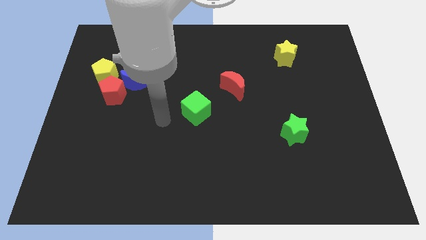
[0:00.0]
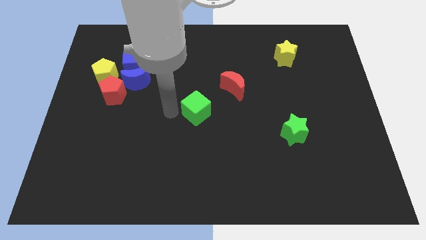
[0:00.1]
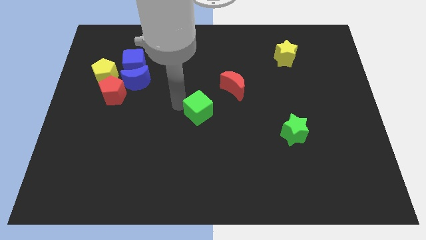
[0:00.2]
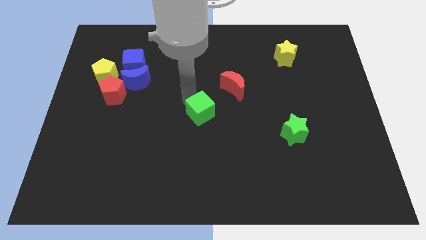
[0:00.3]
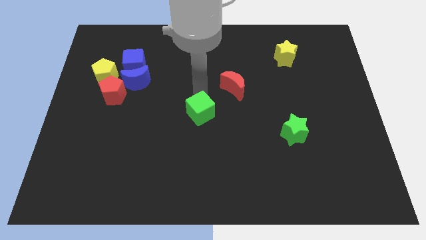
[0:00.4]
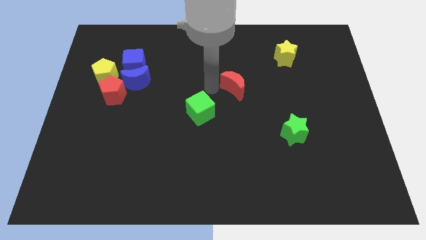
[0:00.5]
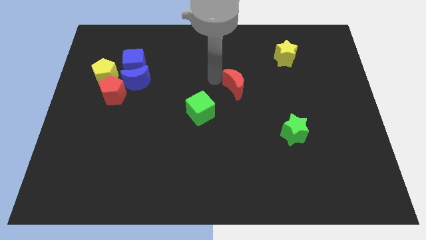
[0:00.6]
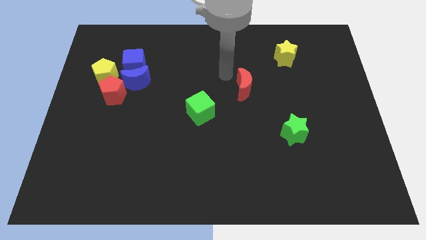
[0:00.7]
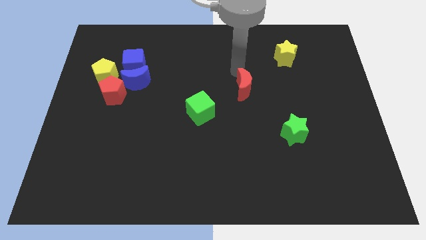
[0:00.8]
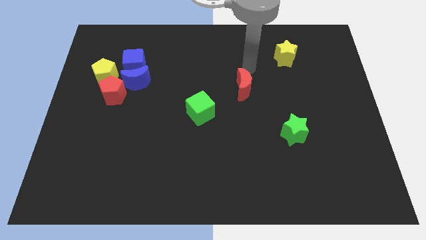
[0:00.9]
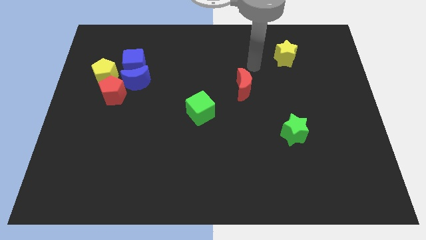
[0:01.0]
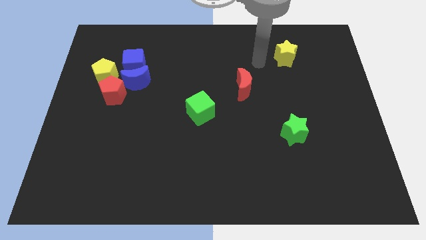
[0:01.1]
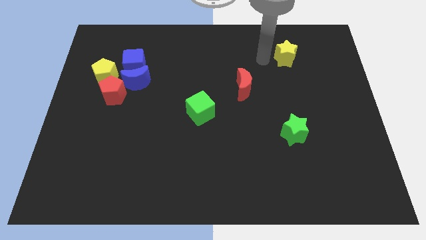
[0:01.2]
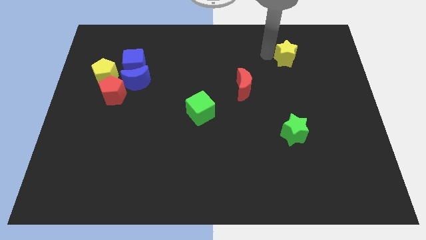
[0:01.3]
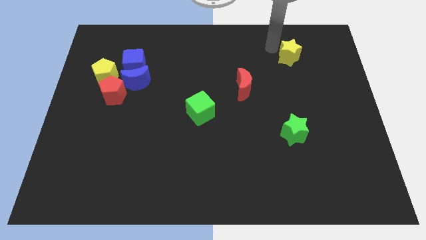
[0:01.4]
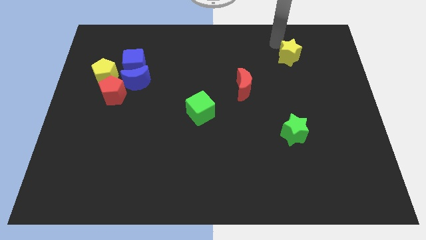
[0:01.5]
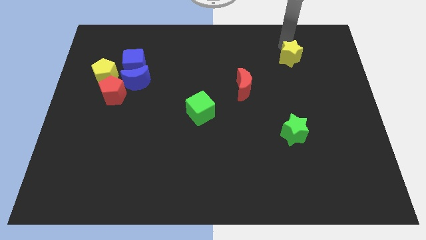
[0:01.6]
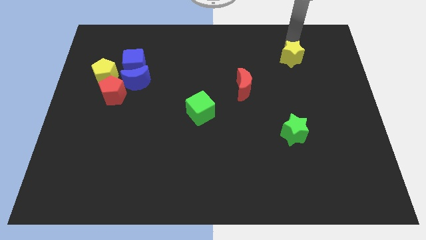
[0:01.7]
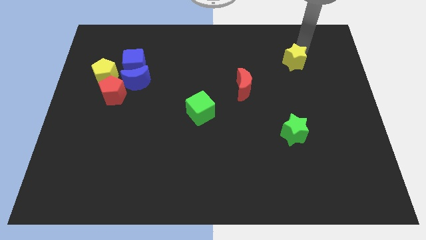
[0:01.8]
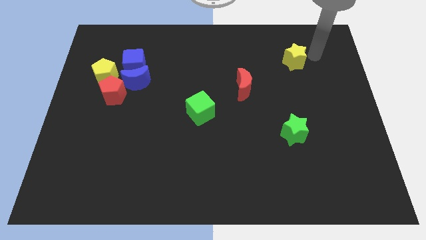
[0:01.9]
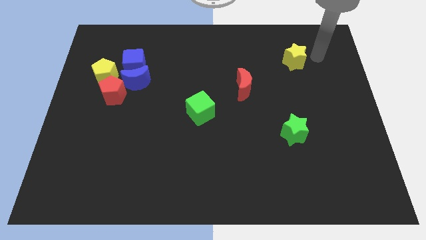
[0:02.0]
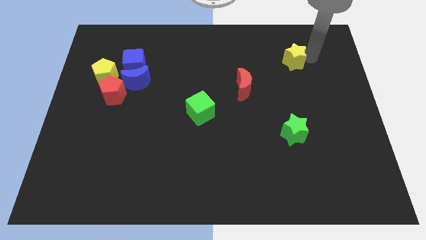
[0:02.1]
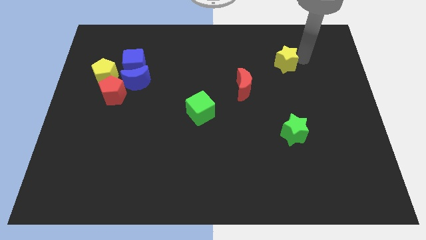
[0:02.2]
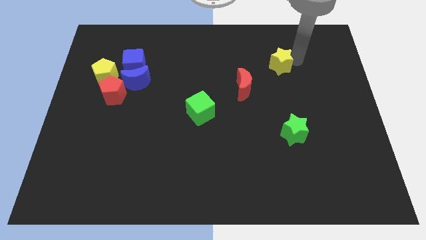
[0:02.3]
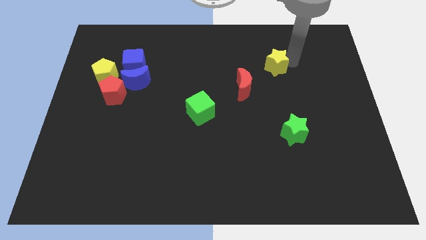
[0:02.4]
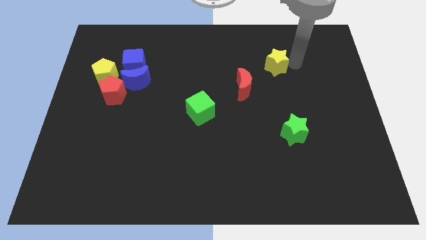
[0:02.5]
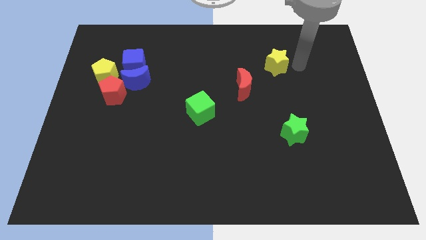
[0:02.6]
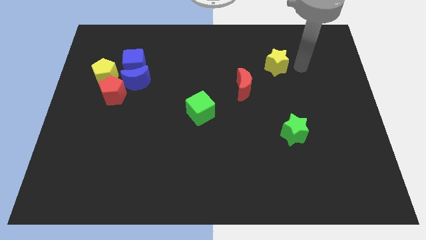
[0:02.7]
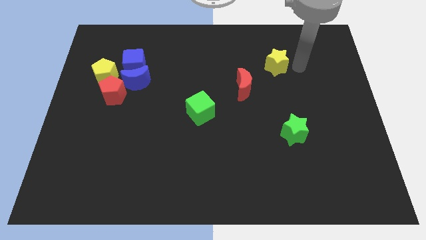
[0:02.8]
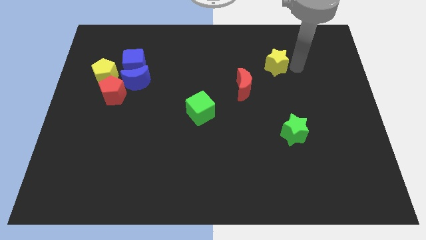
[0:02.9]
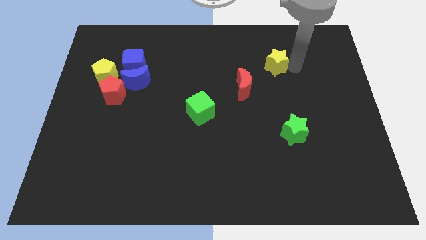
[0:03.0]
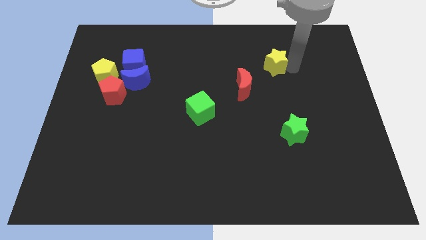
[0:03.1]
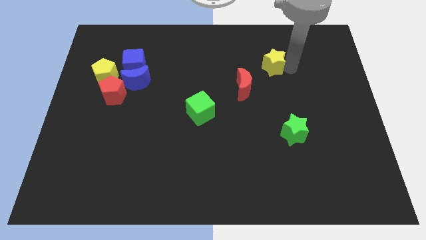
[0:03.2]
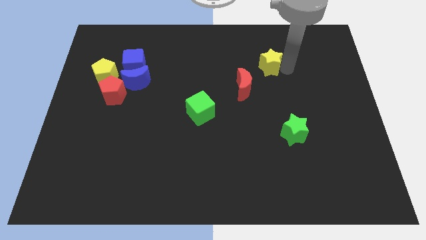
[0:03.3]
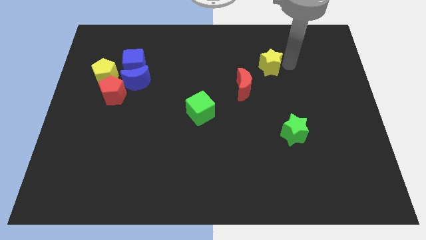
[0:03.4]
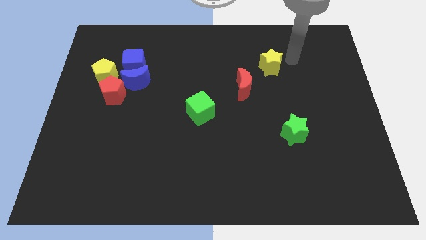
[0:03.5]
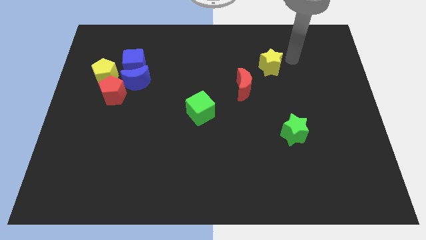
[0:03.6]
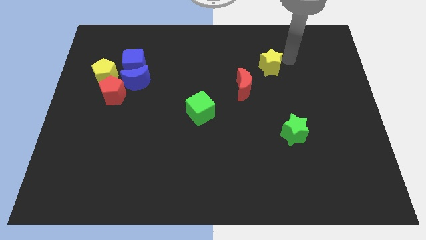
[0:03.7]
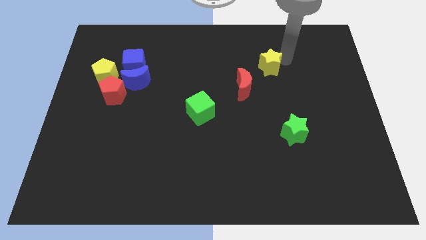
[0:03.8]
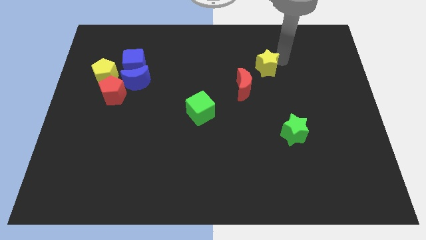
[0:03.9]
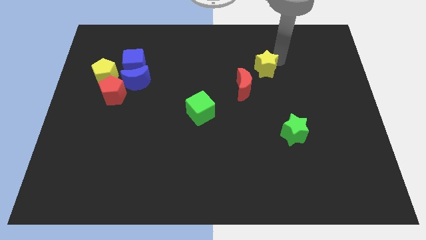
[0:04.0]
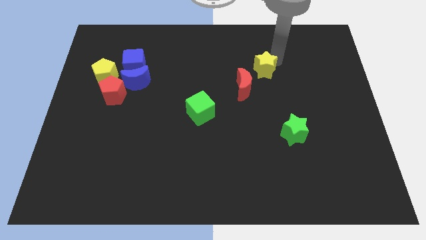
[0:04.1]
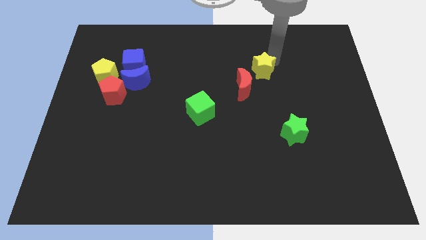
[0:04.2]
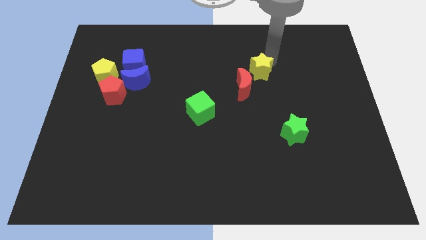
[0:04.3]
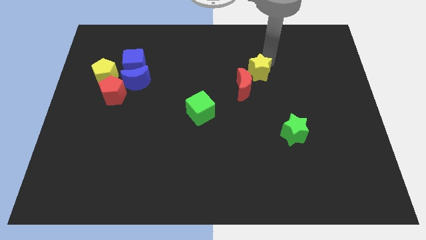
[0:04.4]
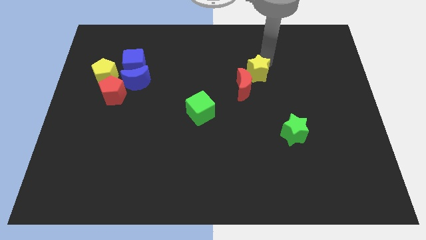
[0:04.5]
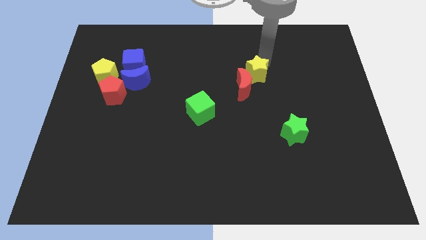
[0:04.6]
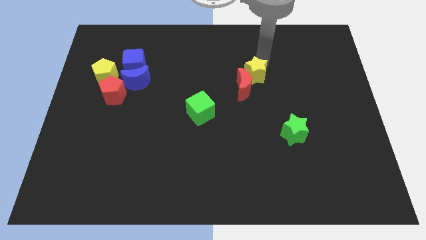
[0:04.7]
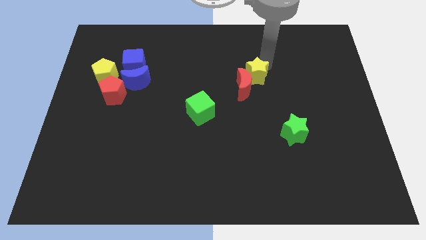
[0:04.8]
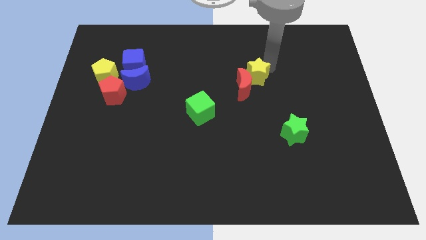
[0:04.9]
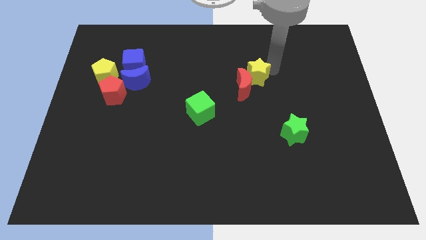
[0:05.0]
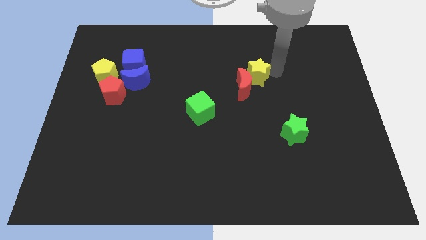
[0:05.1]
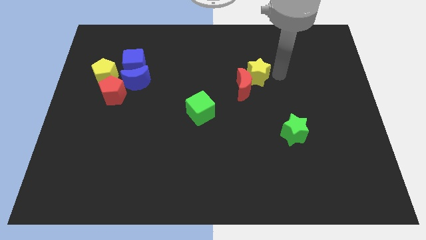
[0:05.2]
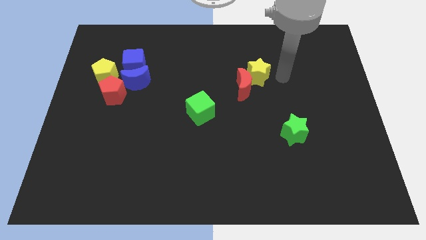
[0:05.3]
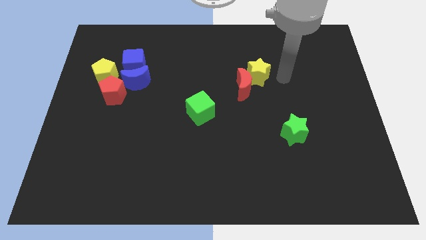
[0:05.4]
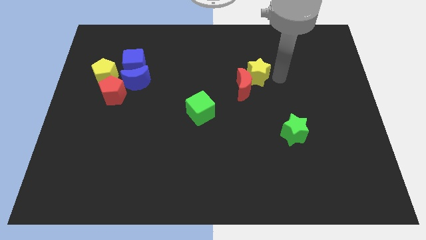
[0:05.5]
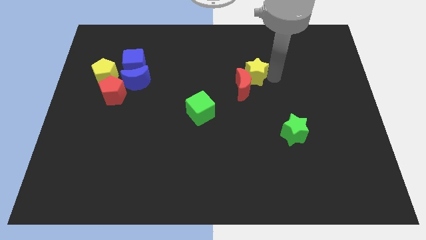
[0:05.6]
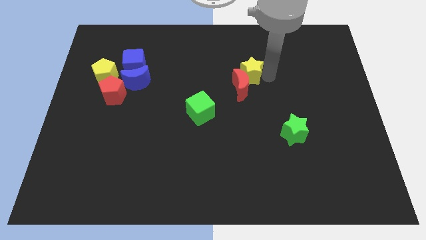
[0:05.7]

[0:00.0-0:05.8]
move the yellow star to the center

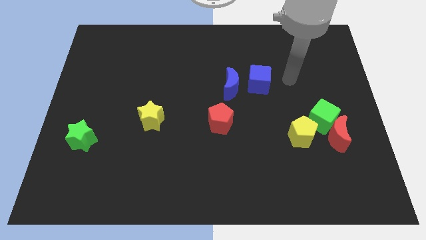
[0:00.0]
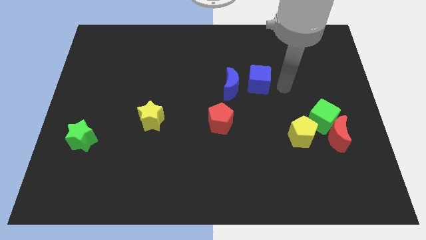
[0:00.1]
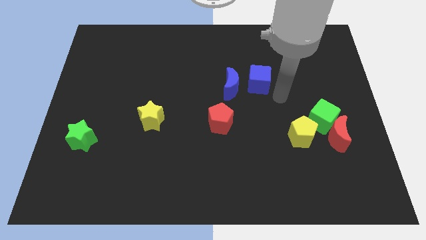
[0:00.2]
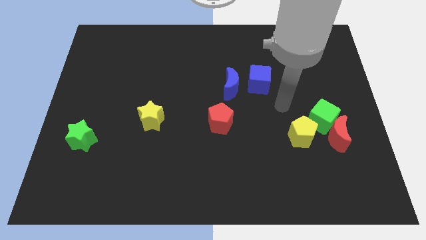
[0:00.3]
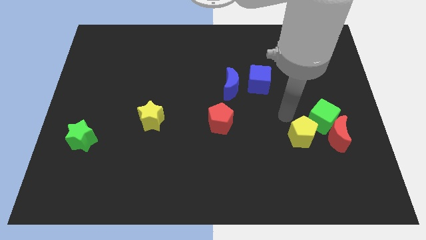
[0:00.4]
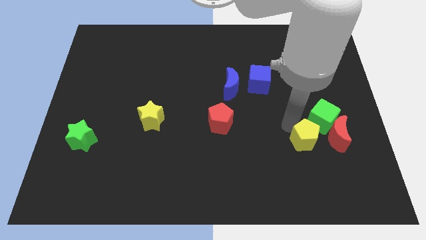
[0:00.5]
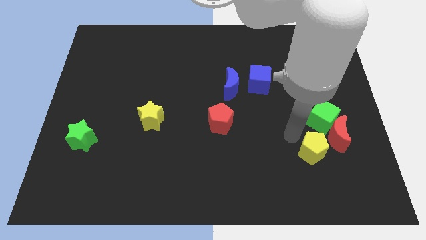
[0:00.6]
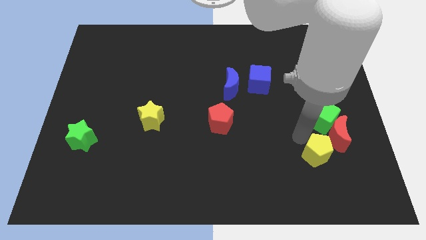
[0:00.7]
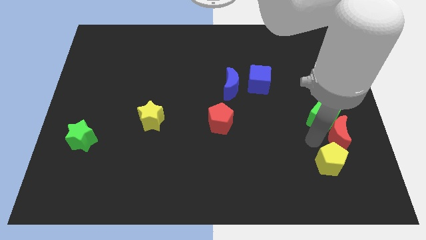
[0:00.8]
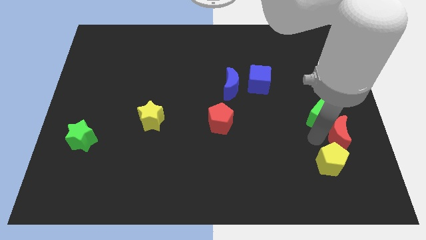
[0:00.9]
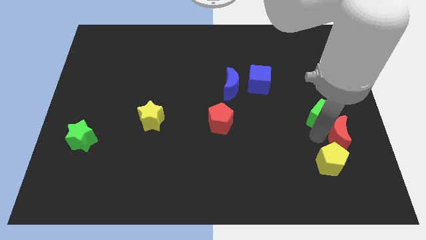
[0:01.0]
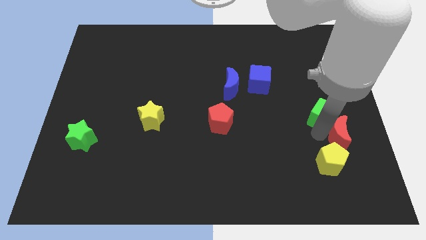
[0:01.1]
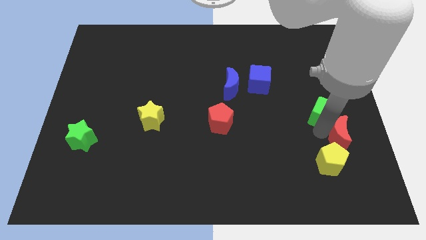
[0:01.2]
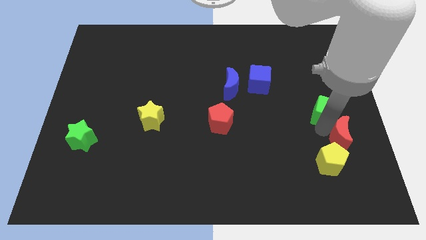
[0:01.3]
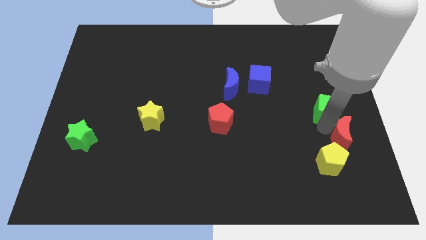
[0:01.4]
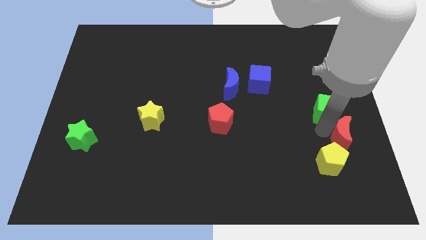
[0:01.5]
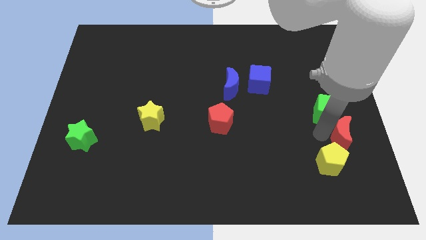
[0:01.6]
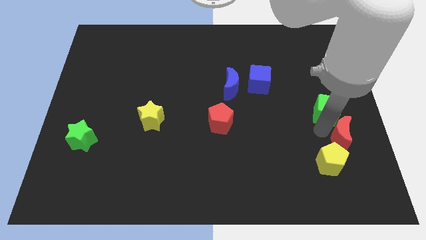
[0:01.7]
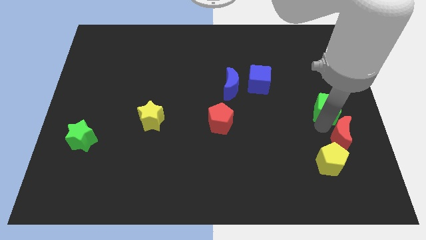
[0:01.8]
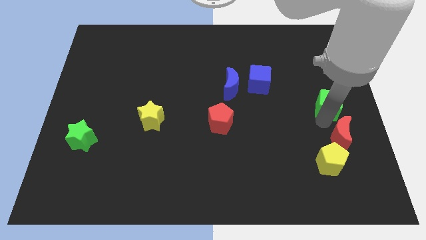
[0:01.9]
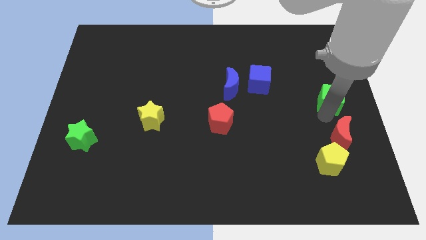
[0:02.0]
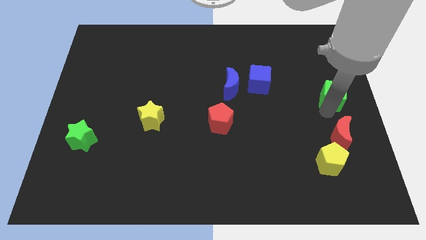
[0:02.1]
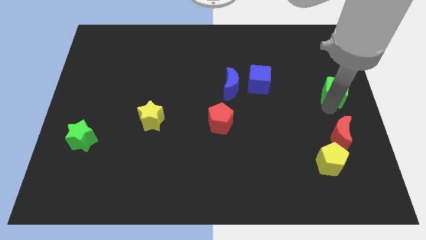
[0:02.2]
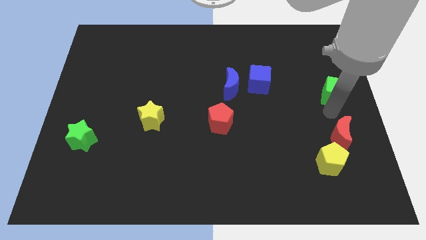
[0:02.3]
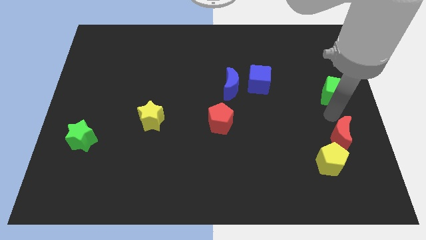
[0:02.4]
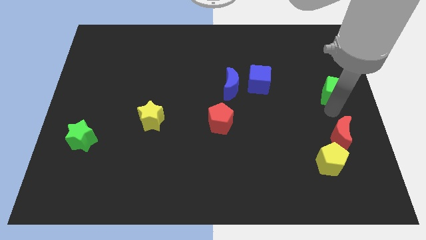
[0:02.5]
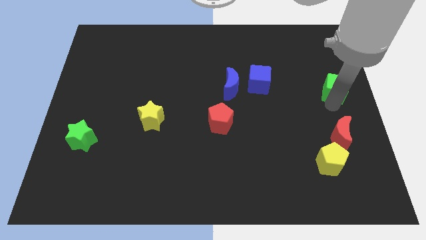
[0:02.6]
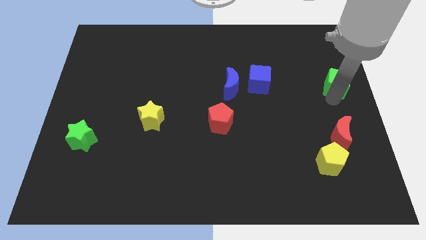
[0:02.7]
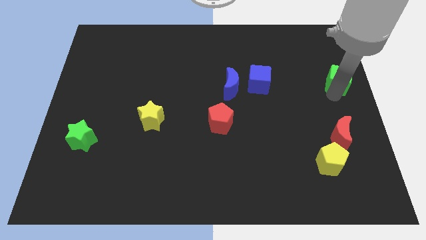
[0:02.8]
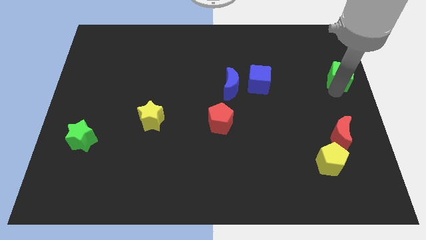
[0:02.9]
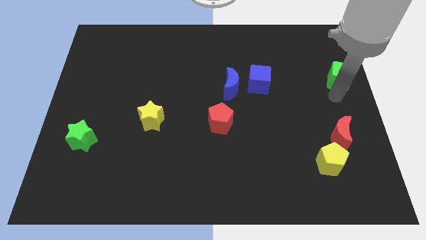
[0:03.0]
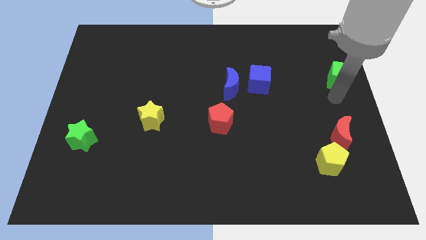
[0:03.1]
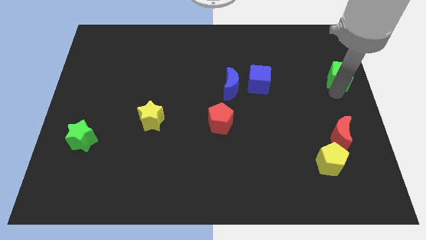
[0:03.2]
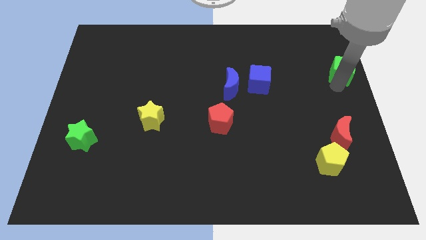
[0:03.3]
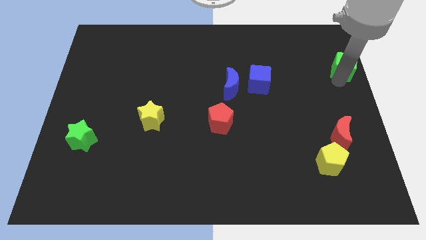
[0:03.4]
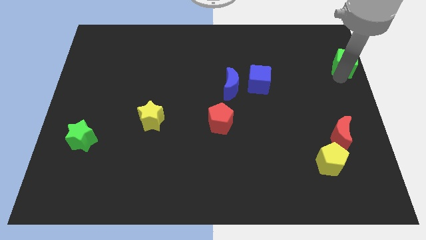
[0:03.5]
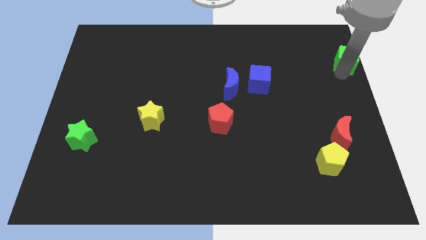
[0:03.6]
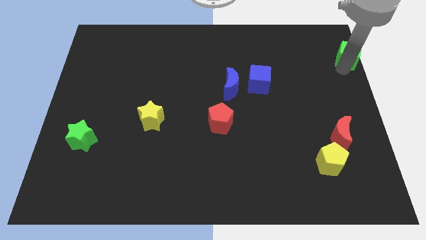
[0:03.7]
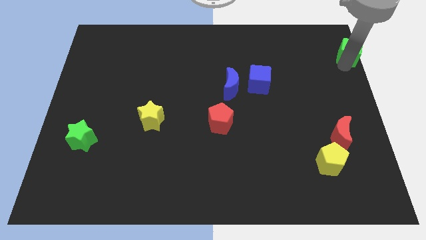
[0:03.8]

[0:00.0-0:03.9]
put the green cube to the top right corner
